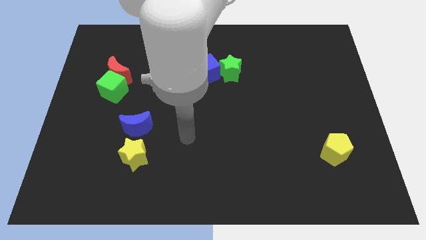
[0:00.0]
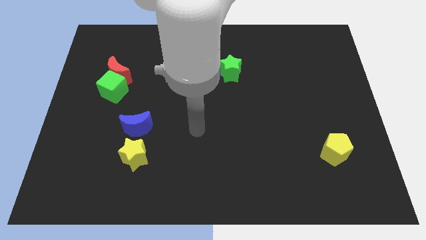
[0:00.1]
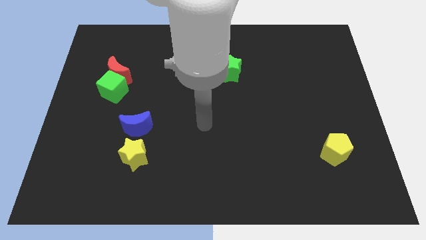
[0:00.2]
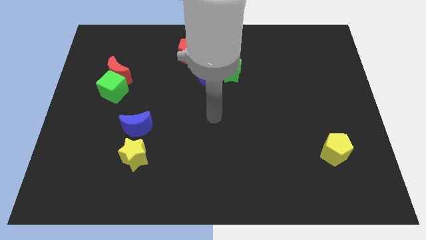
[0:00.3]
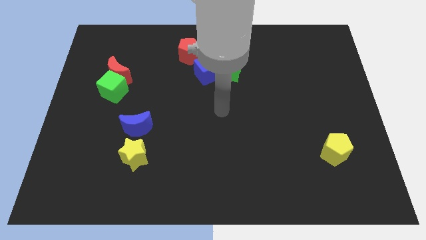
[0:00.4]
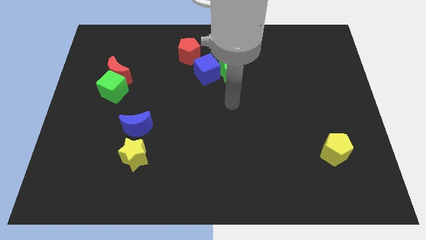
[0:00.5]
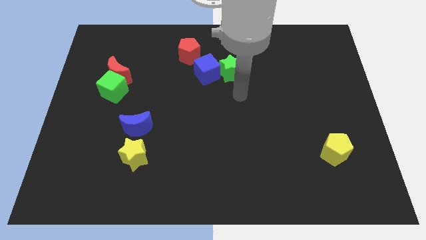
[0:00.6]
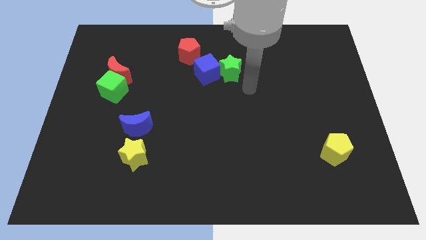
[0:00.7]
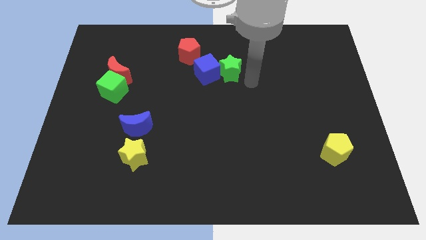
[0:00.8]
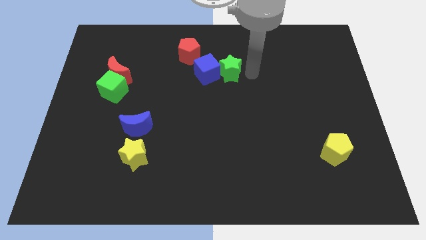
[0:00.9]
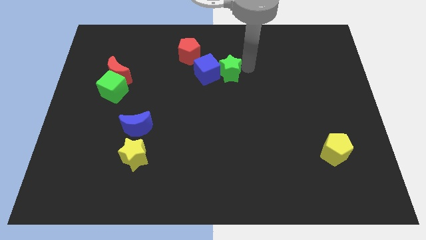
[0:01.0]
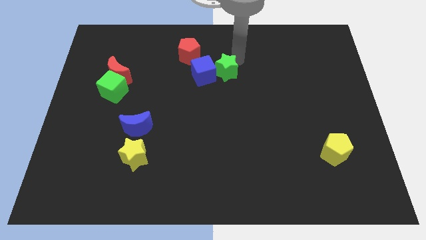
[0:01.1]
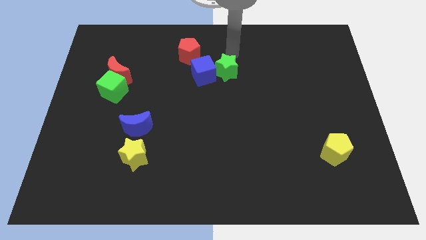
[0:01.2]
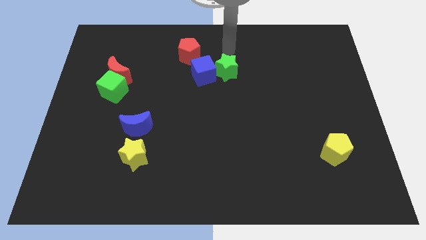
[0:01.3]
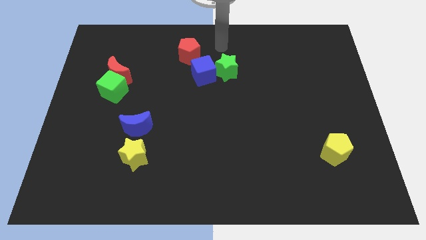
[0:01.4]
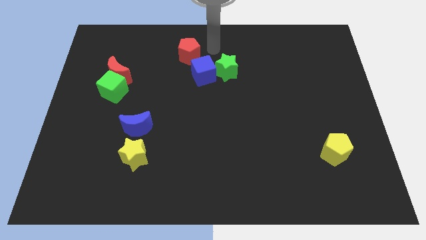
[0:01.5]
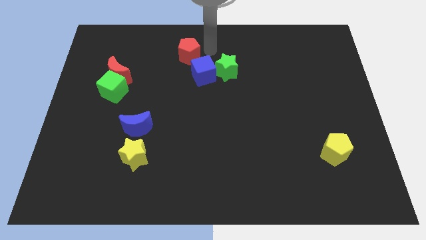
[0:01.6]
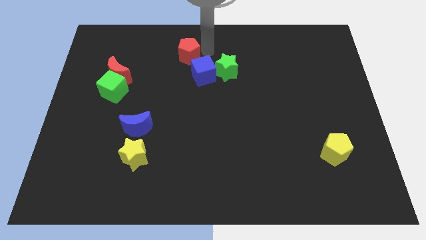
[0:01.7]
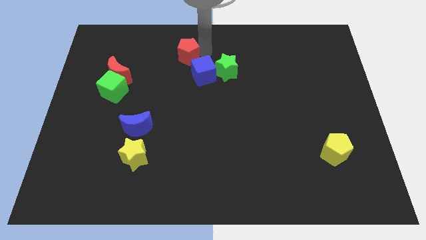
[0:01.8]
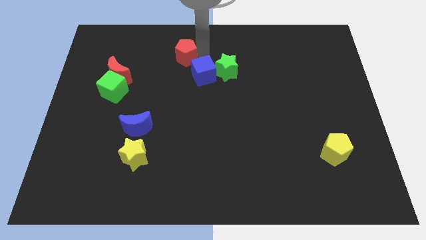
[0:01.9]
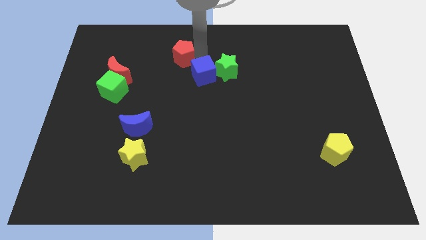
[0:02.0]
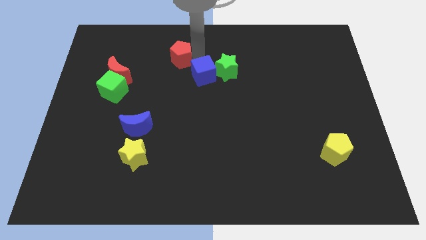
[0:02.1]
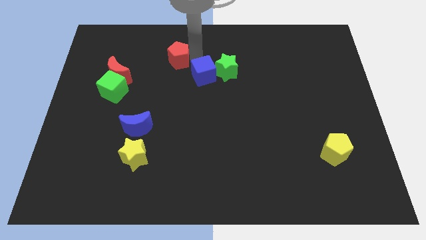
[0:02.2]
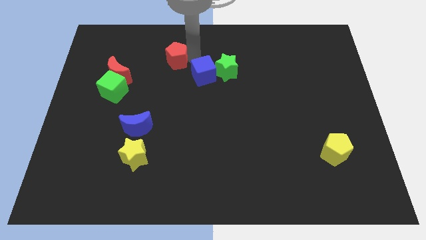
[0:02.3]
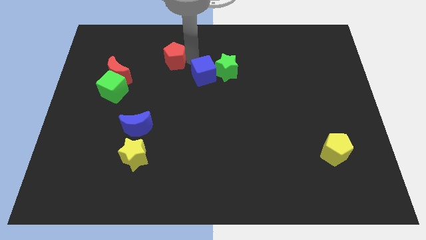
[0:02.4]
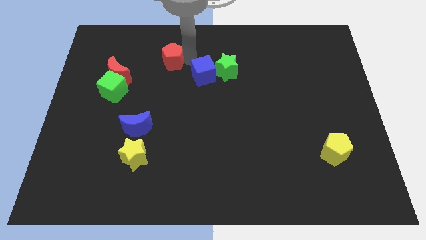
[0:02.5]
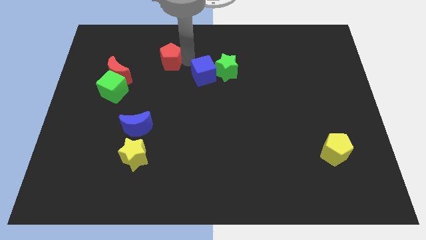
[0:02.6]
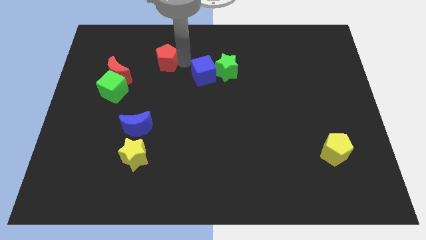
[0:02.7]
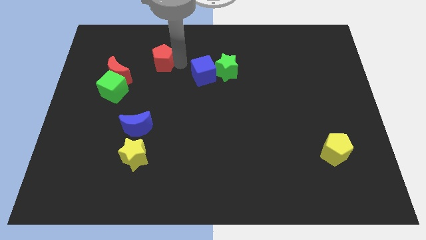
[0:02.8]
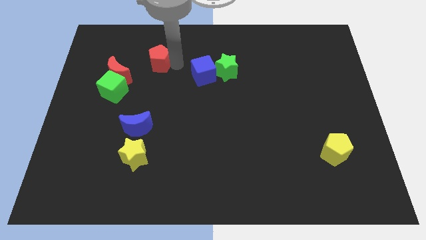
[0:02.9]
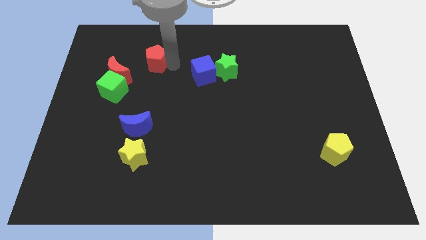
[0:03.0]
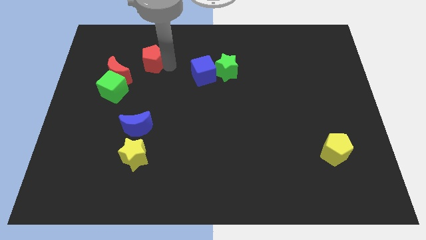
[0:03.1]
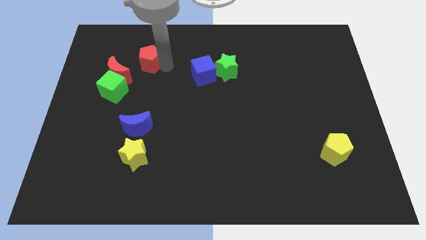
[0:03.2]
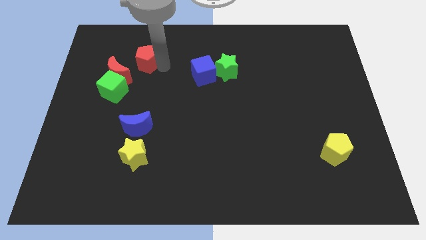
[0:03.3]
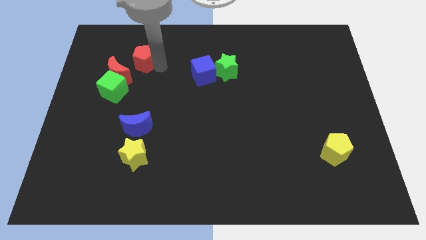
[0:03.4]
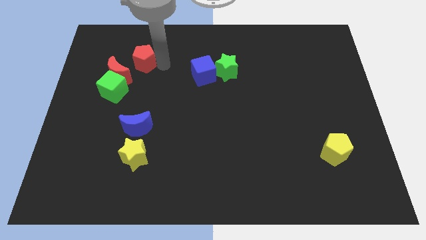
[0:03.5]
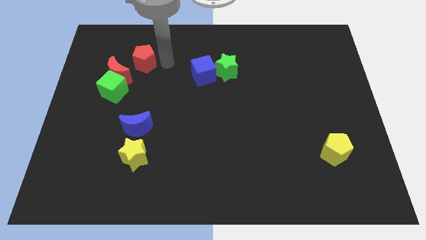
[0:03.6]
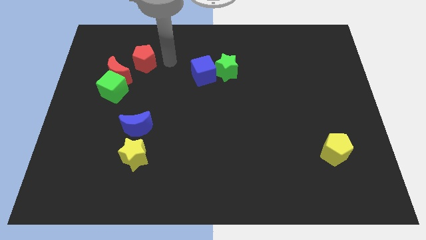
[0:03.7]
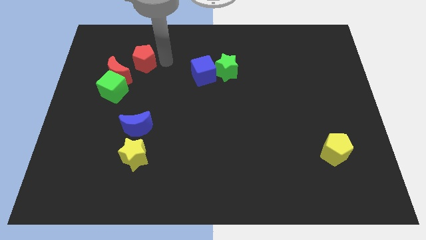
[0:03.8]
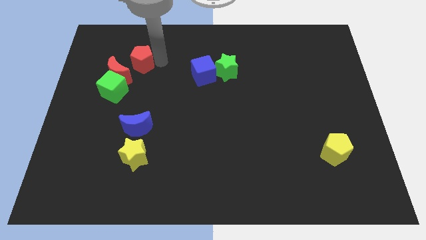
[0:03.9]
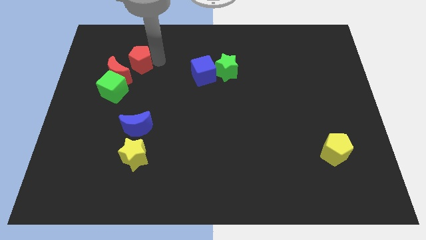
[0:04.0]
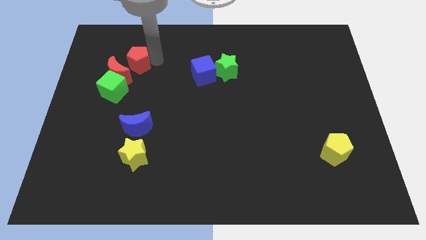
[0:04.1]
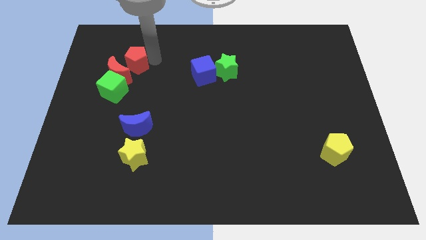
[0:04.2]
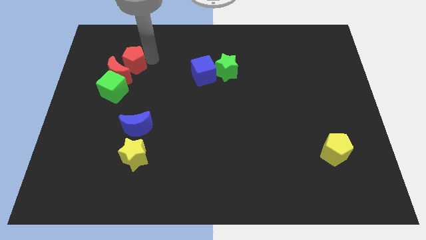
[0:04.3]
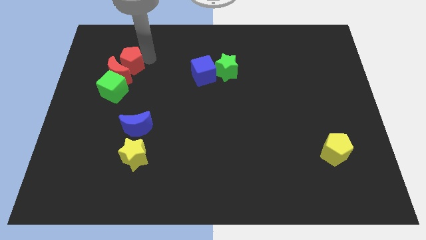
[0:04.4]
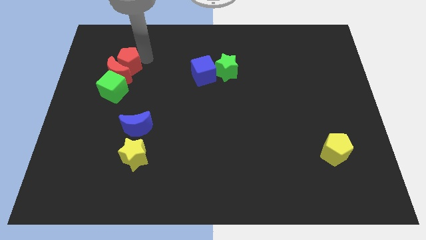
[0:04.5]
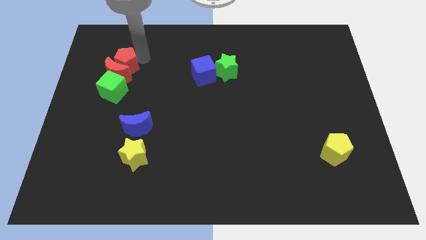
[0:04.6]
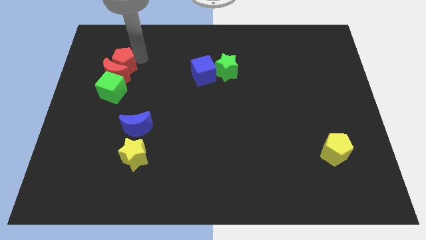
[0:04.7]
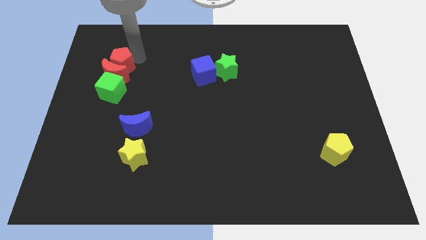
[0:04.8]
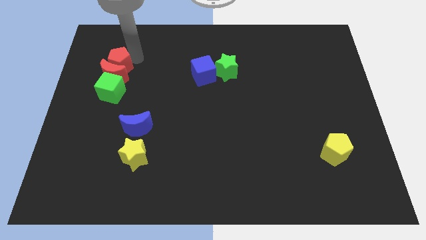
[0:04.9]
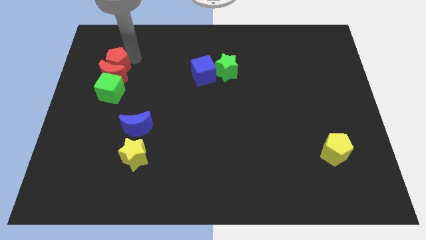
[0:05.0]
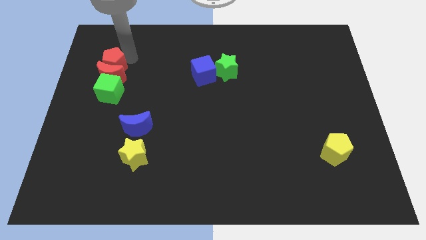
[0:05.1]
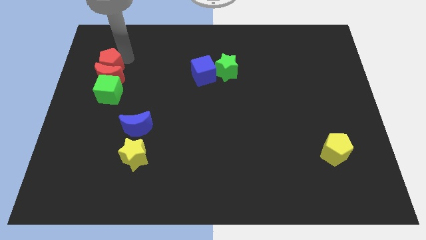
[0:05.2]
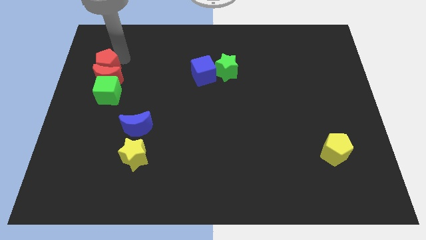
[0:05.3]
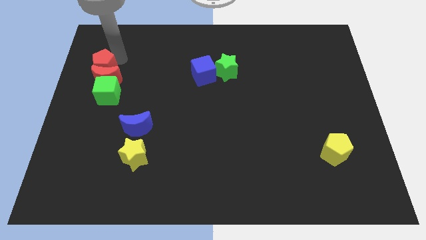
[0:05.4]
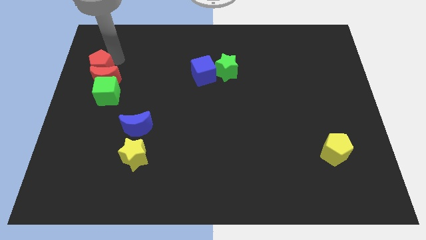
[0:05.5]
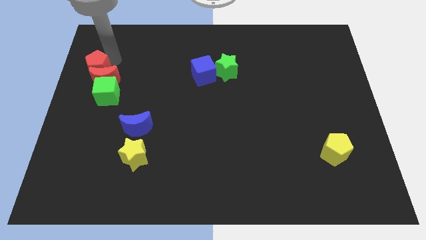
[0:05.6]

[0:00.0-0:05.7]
push the red pentagon to the left side

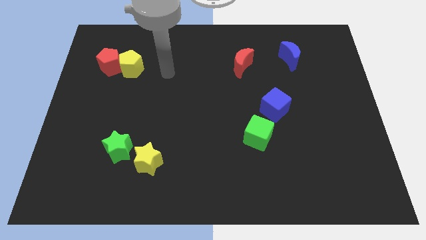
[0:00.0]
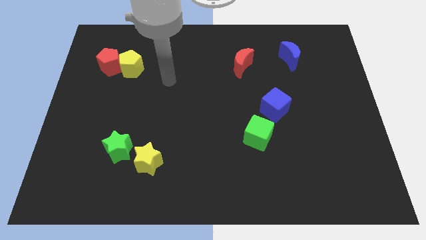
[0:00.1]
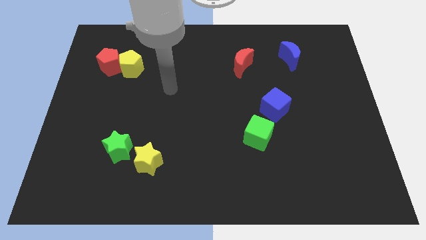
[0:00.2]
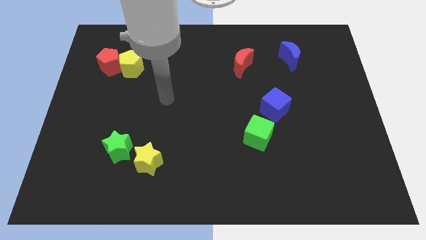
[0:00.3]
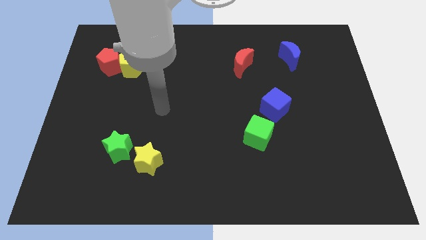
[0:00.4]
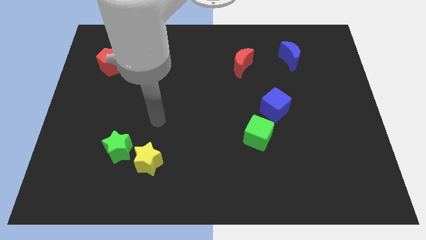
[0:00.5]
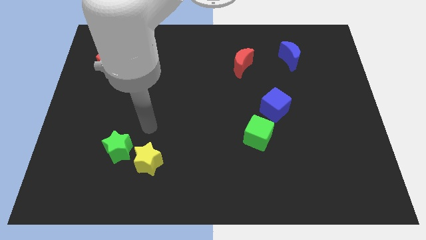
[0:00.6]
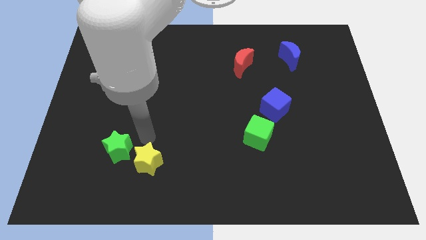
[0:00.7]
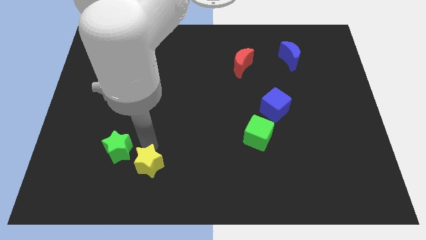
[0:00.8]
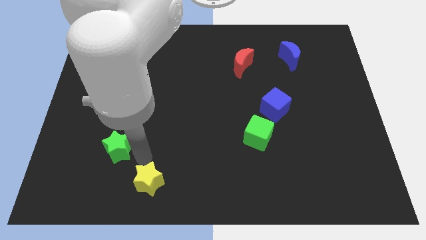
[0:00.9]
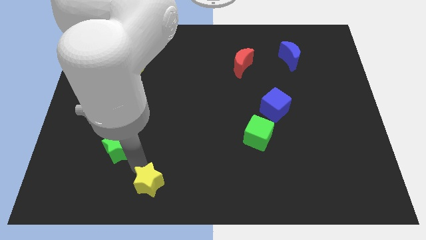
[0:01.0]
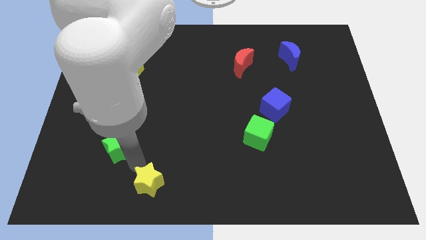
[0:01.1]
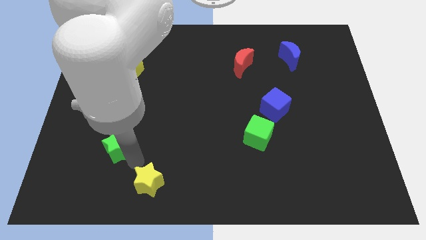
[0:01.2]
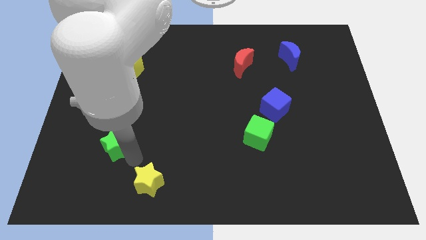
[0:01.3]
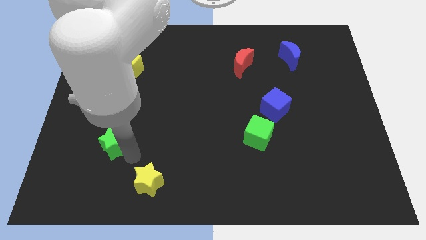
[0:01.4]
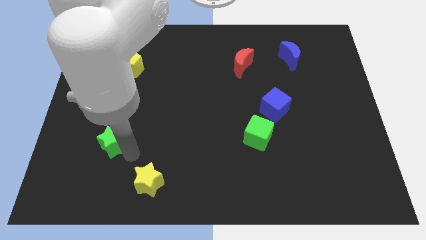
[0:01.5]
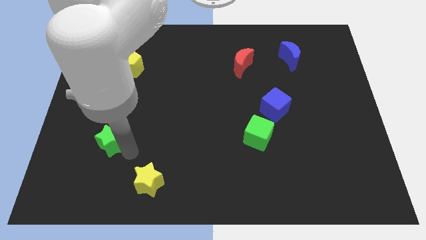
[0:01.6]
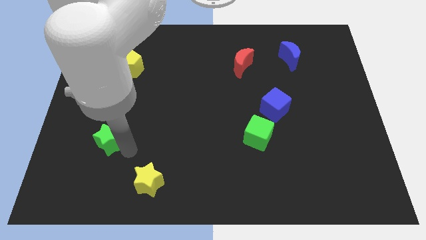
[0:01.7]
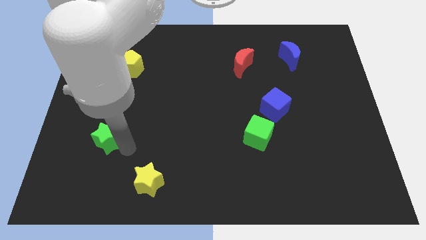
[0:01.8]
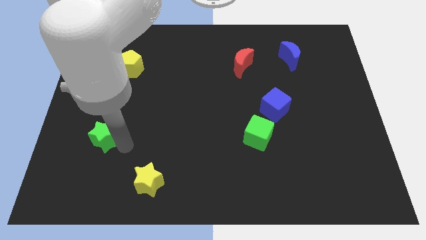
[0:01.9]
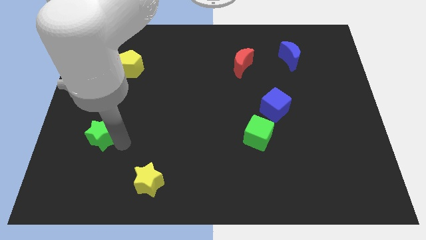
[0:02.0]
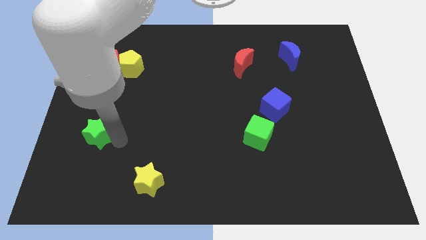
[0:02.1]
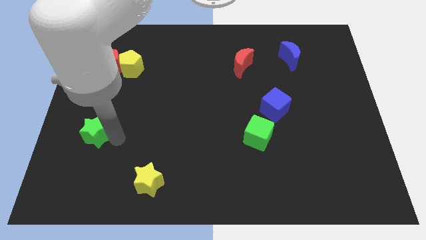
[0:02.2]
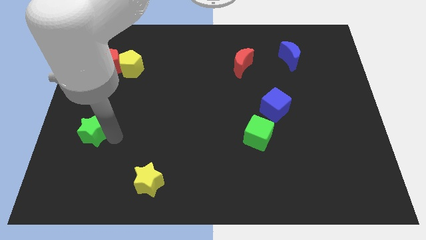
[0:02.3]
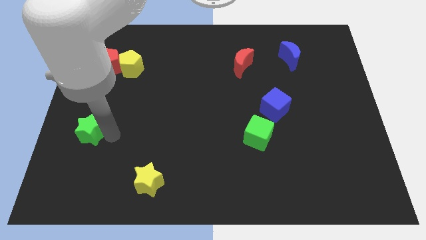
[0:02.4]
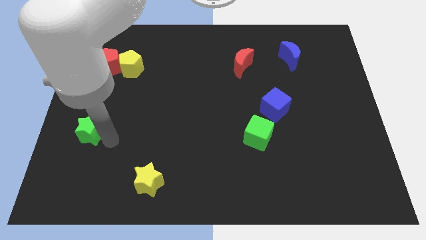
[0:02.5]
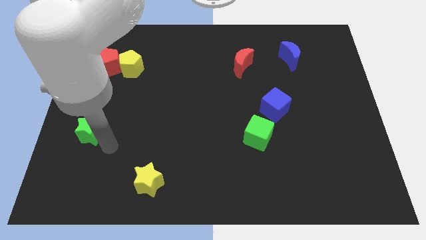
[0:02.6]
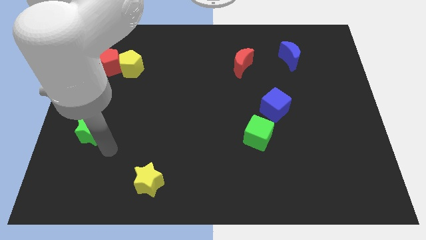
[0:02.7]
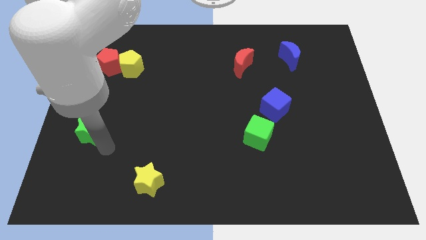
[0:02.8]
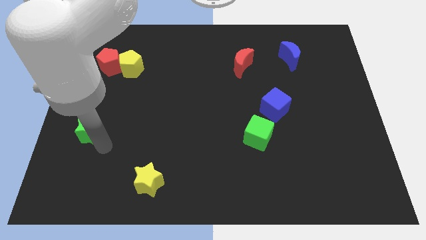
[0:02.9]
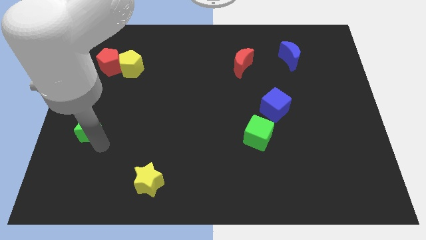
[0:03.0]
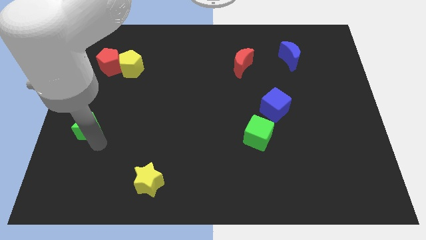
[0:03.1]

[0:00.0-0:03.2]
put the green star to the left side of the board

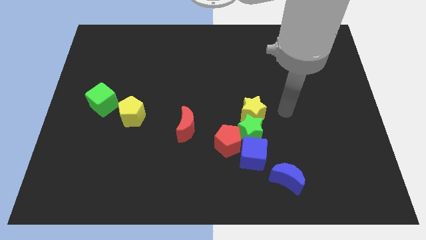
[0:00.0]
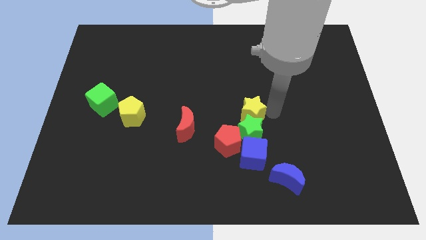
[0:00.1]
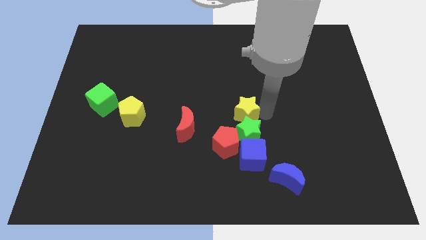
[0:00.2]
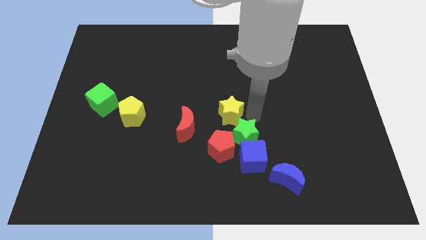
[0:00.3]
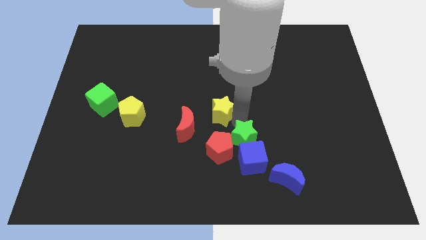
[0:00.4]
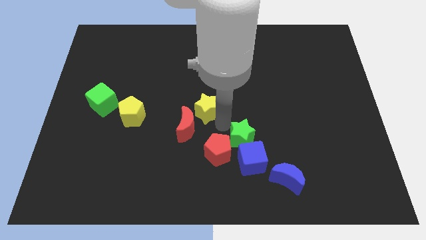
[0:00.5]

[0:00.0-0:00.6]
put the red pentagon to the bottom side
